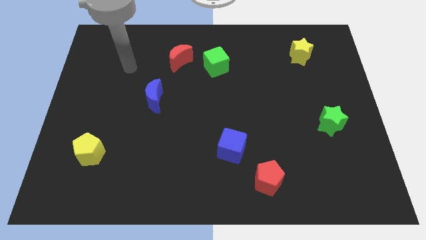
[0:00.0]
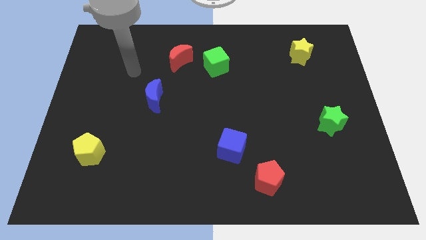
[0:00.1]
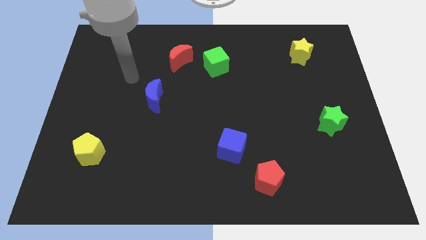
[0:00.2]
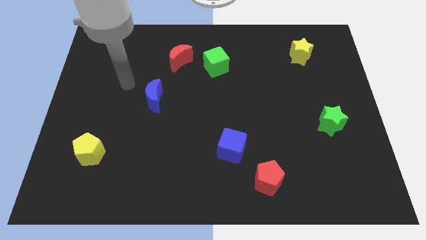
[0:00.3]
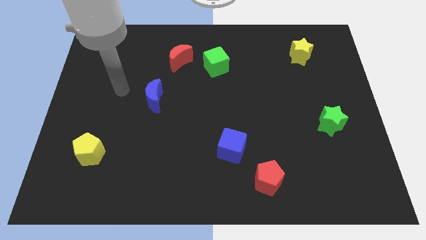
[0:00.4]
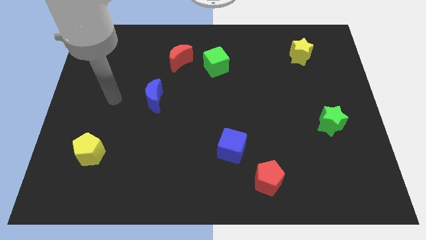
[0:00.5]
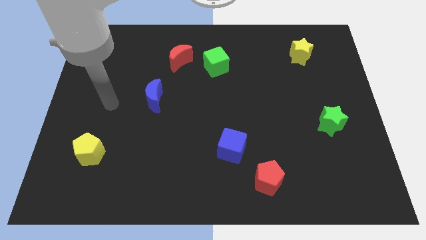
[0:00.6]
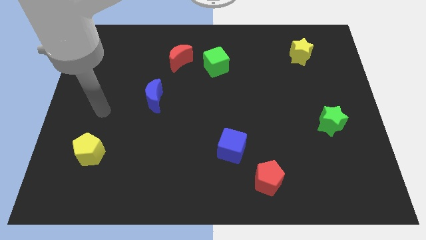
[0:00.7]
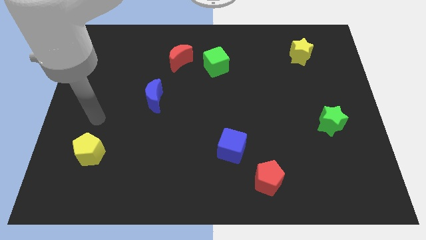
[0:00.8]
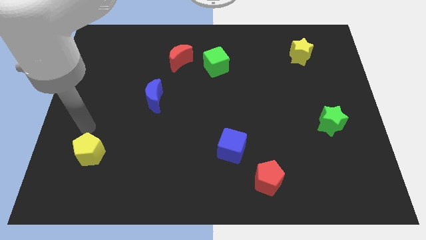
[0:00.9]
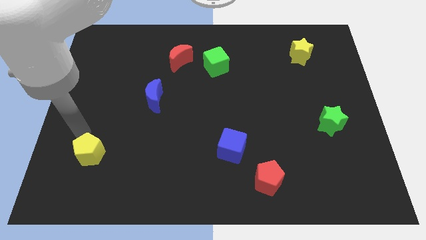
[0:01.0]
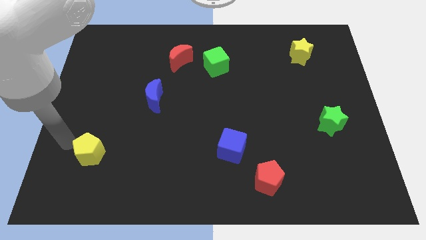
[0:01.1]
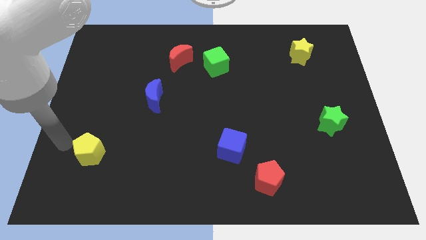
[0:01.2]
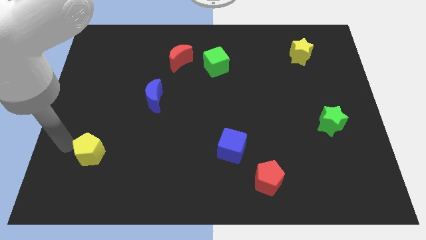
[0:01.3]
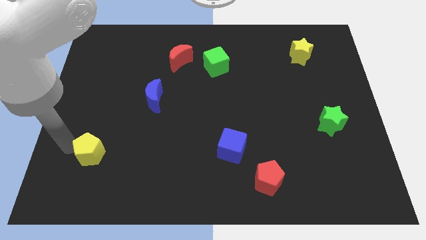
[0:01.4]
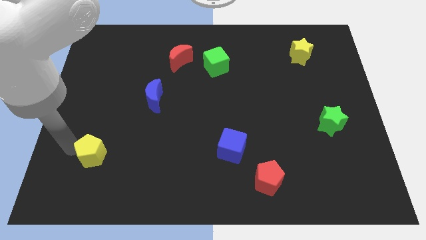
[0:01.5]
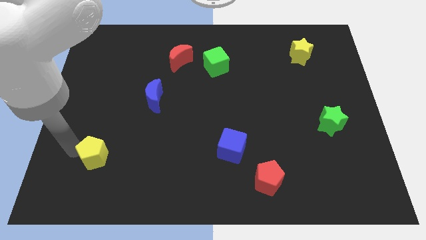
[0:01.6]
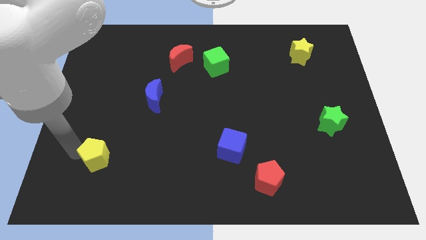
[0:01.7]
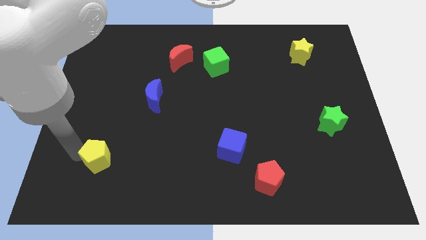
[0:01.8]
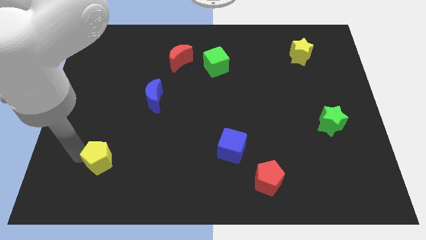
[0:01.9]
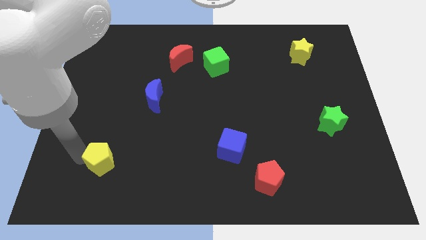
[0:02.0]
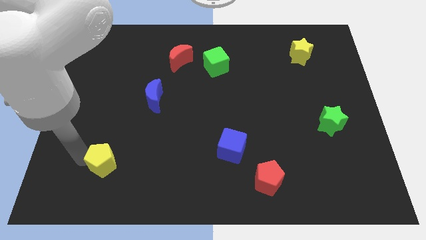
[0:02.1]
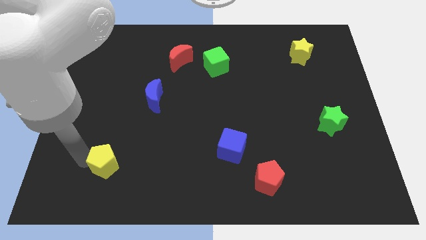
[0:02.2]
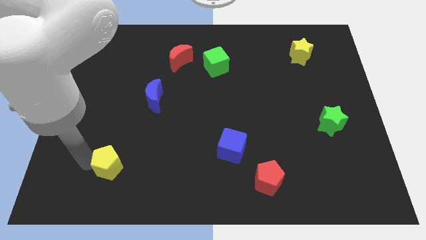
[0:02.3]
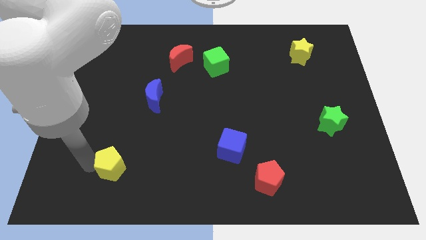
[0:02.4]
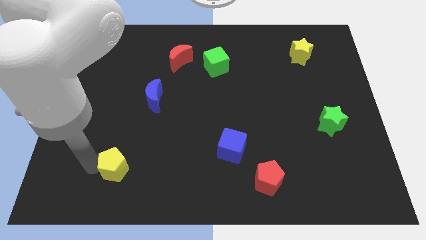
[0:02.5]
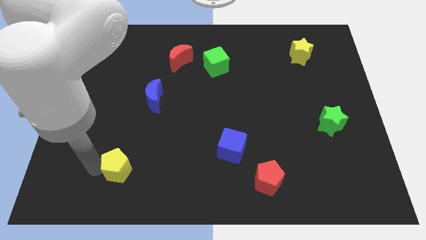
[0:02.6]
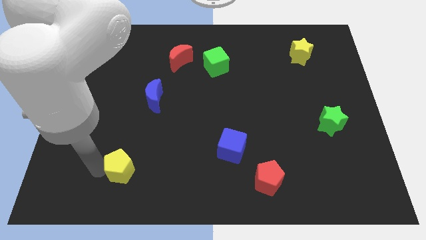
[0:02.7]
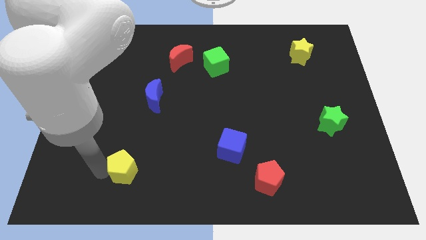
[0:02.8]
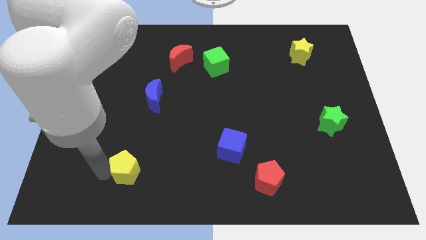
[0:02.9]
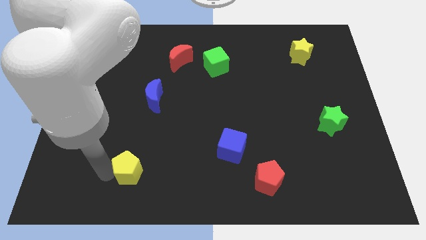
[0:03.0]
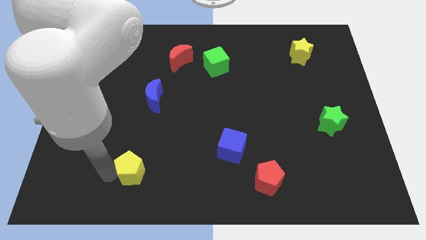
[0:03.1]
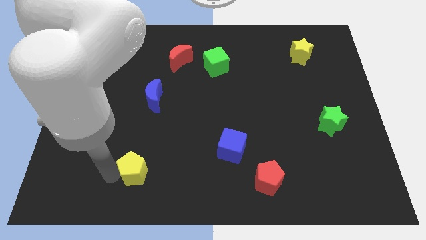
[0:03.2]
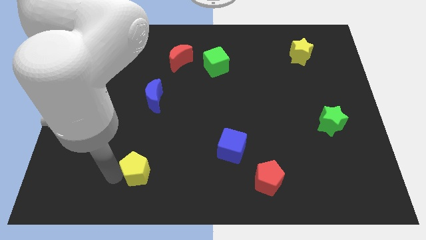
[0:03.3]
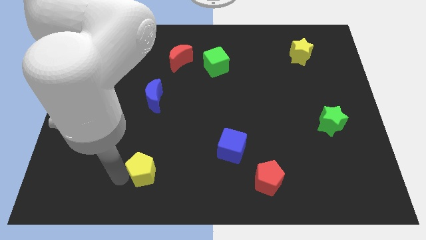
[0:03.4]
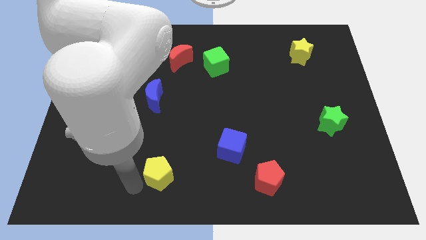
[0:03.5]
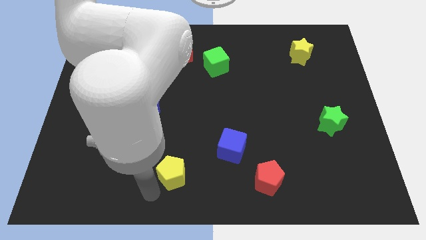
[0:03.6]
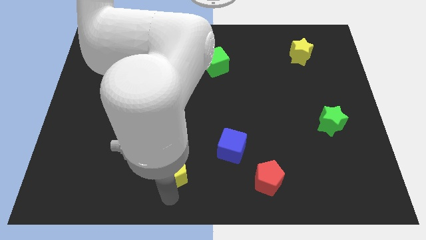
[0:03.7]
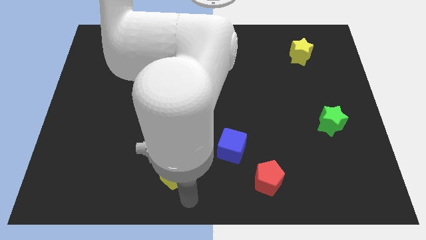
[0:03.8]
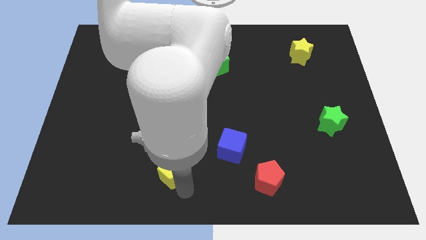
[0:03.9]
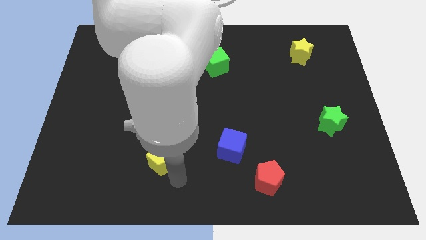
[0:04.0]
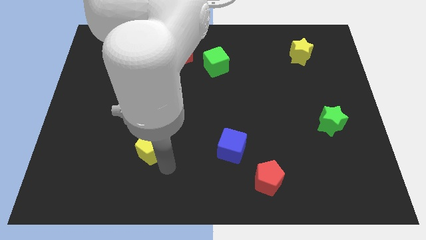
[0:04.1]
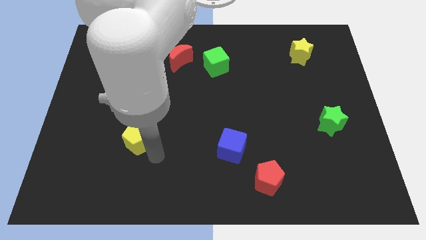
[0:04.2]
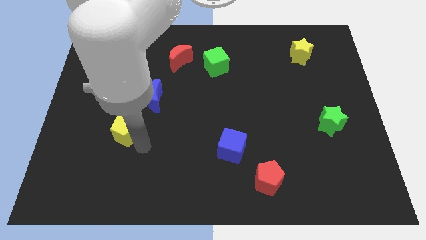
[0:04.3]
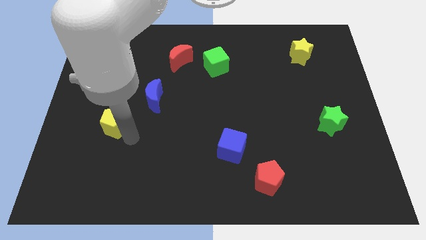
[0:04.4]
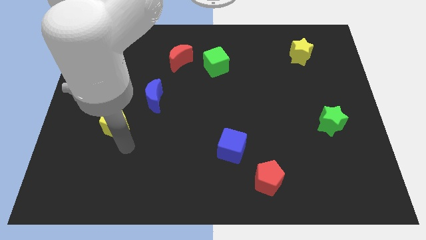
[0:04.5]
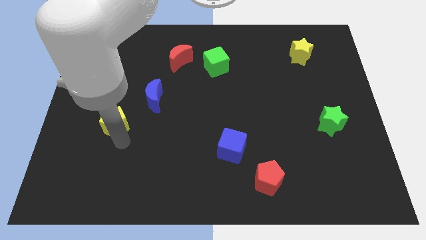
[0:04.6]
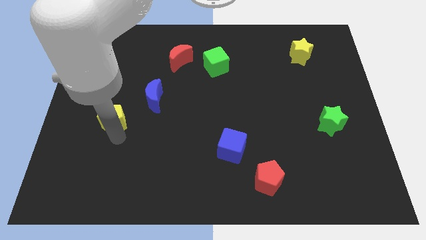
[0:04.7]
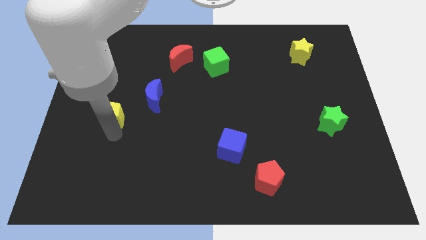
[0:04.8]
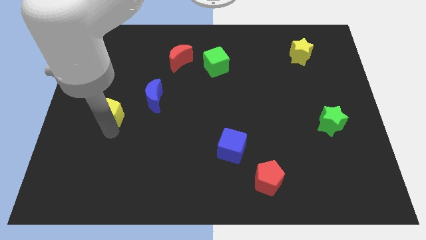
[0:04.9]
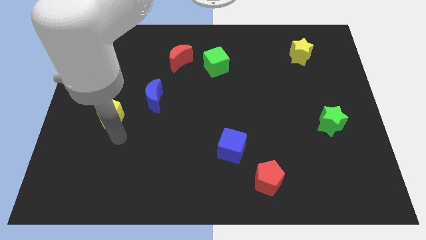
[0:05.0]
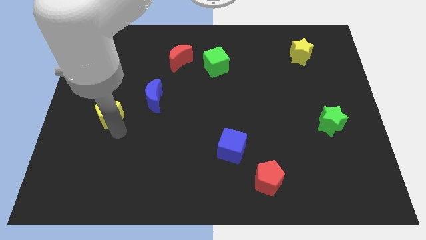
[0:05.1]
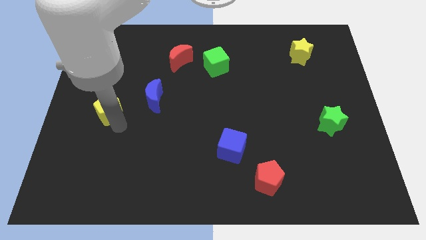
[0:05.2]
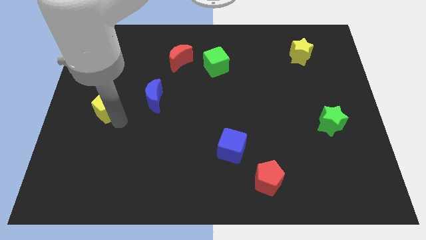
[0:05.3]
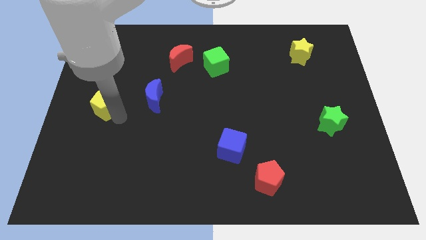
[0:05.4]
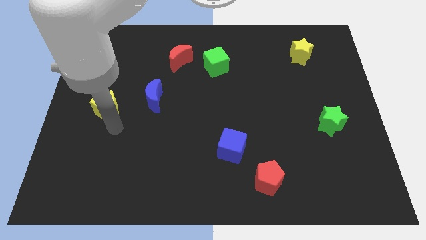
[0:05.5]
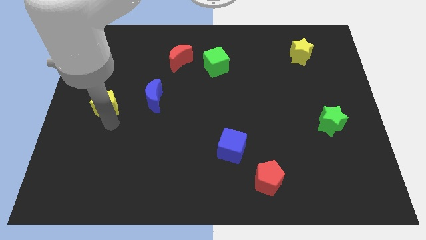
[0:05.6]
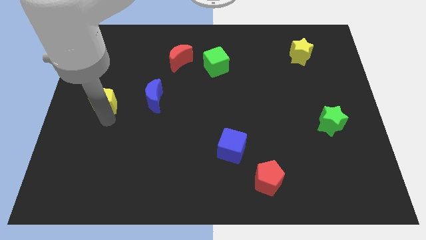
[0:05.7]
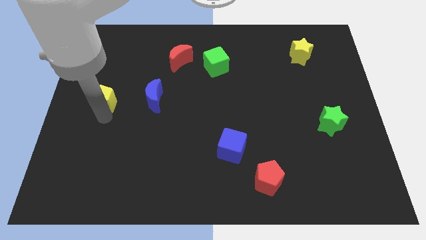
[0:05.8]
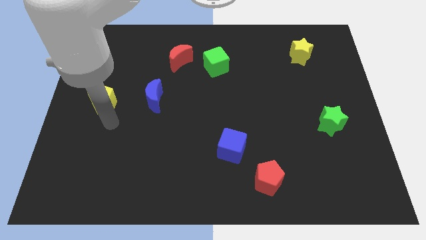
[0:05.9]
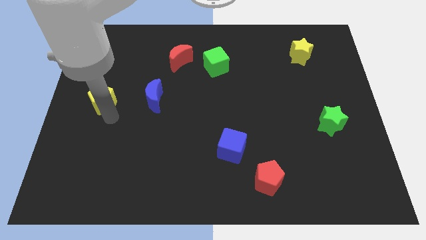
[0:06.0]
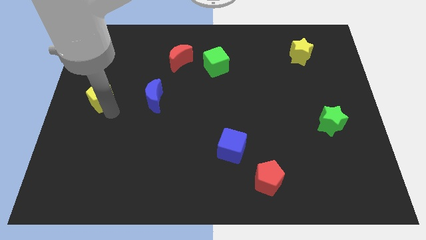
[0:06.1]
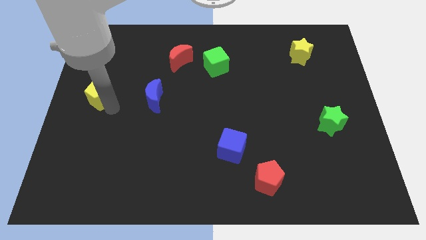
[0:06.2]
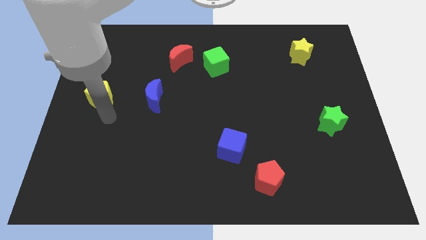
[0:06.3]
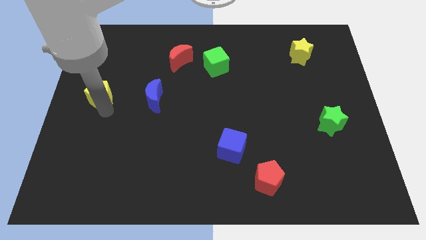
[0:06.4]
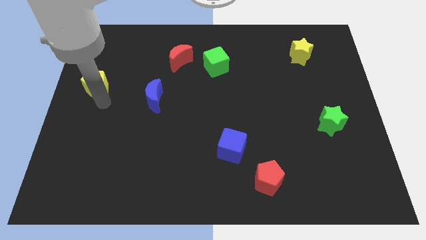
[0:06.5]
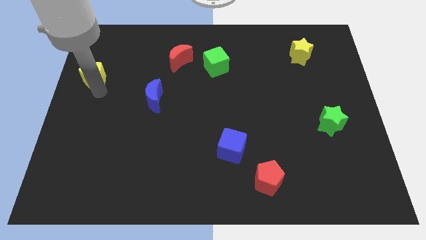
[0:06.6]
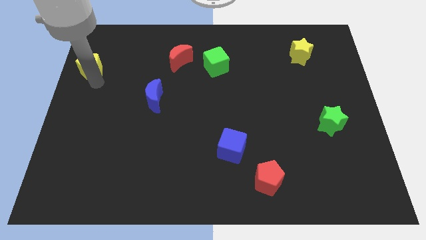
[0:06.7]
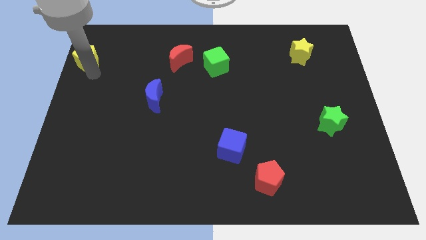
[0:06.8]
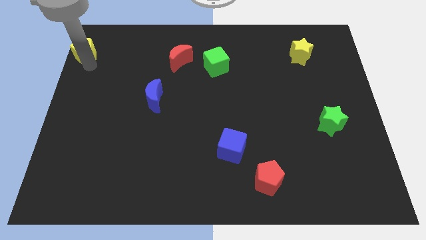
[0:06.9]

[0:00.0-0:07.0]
move the yellow pentagon to the upper left corner
